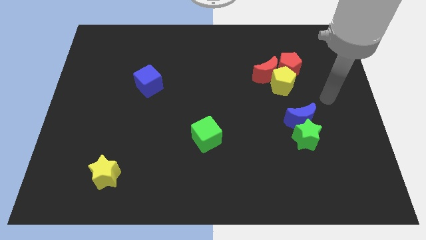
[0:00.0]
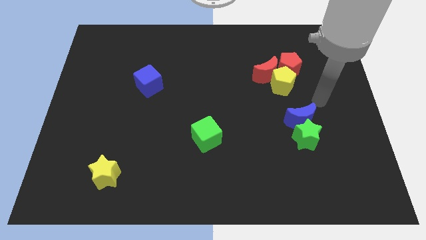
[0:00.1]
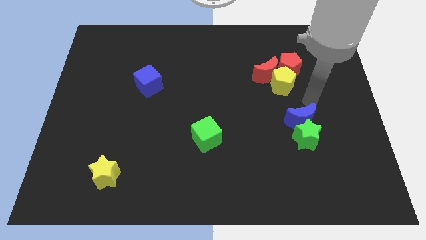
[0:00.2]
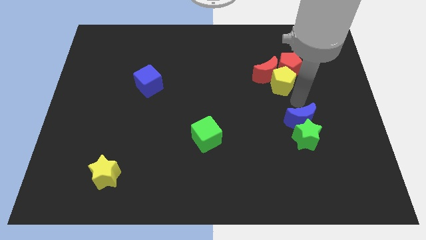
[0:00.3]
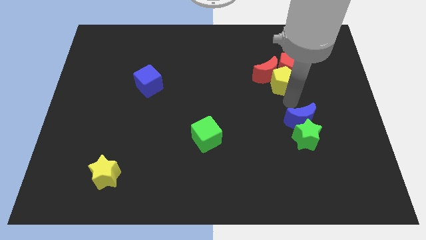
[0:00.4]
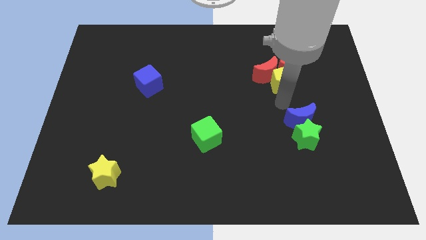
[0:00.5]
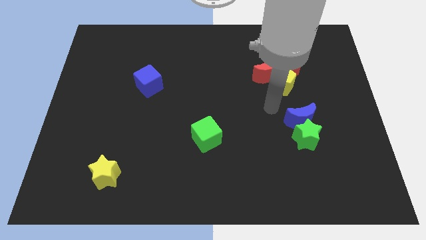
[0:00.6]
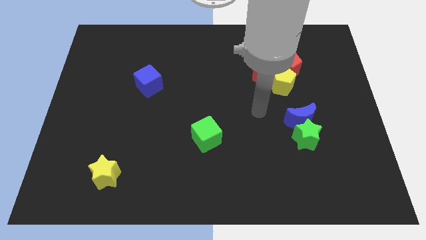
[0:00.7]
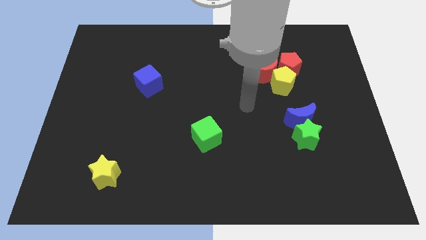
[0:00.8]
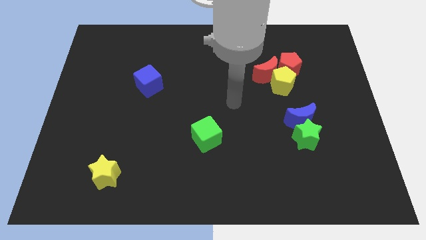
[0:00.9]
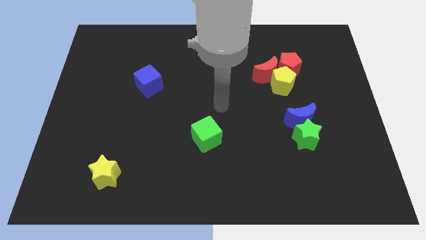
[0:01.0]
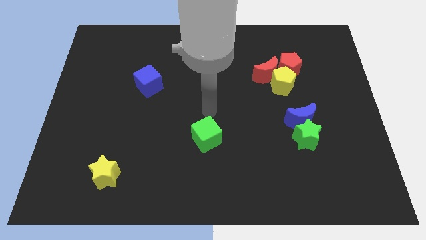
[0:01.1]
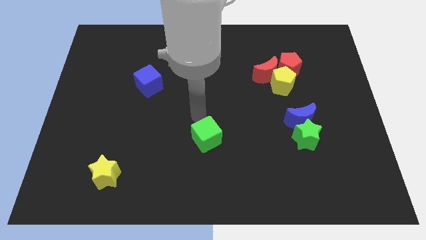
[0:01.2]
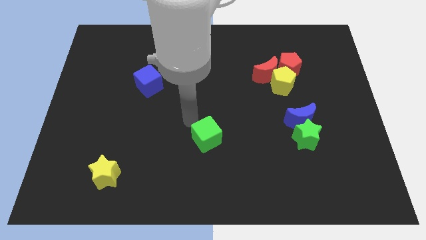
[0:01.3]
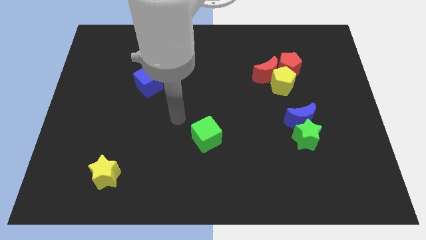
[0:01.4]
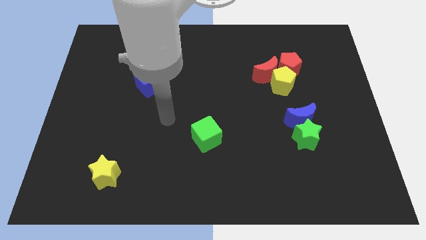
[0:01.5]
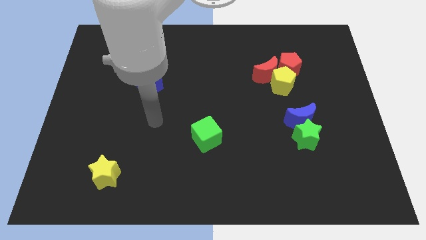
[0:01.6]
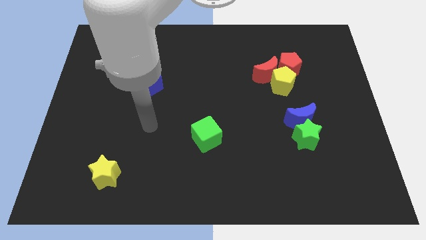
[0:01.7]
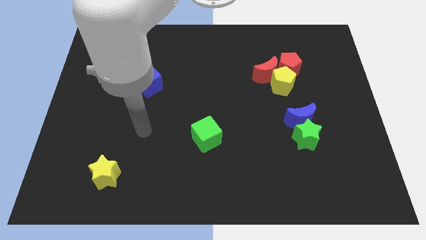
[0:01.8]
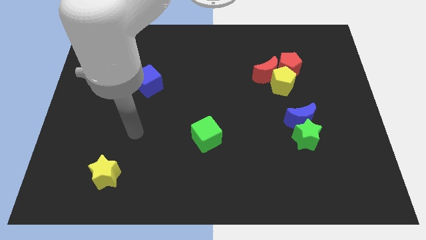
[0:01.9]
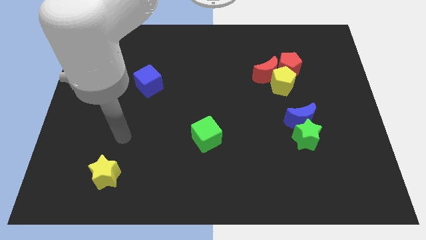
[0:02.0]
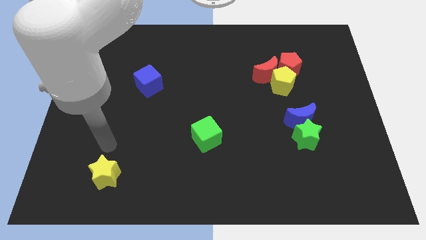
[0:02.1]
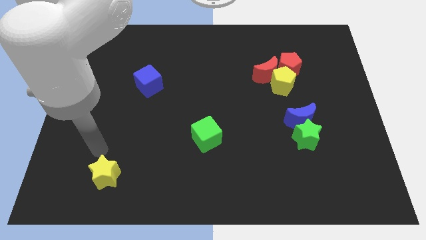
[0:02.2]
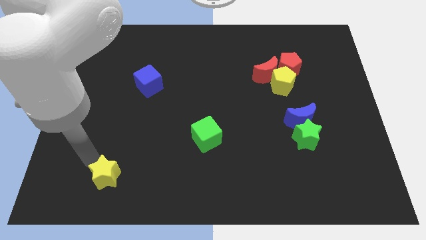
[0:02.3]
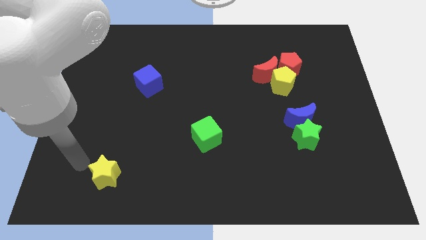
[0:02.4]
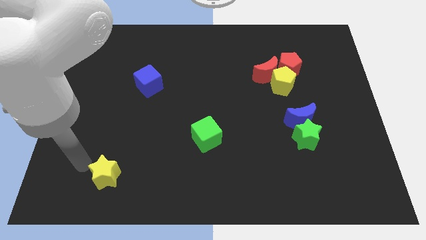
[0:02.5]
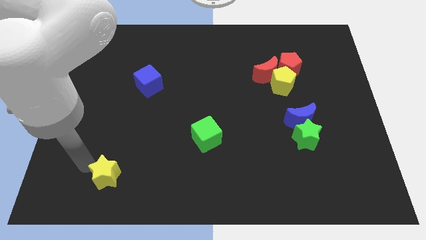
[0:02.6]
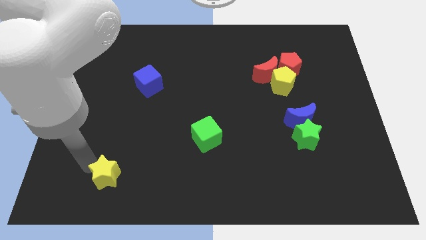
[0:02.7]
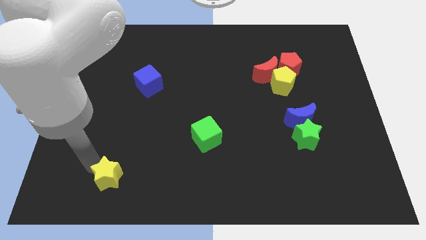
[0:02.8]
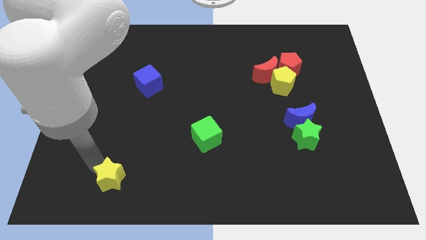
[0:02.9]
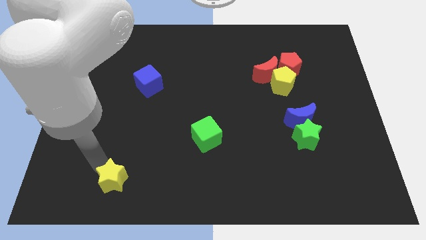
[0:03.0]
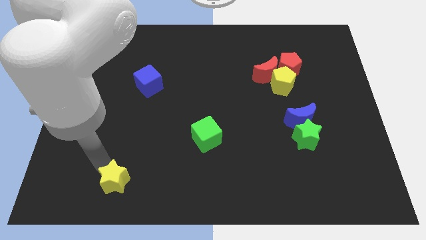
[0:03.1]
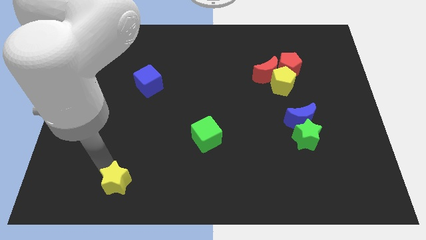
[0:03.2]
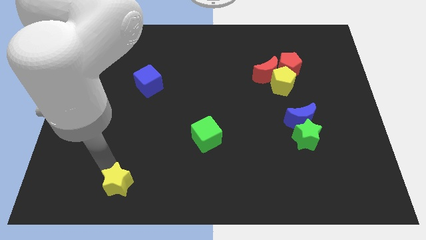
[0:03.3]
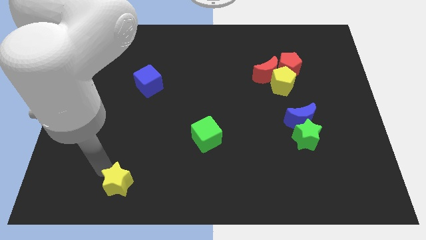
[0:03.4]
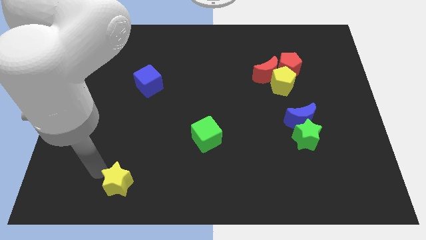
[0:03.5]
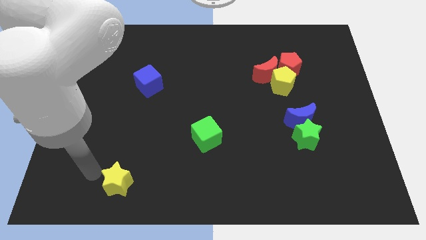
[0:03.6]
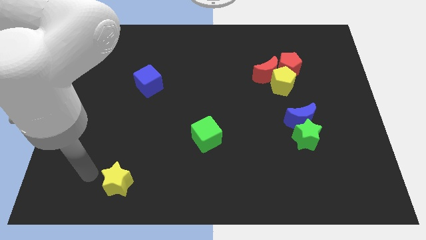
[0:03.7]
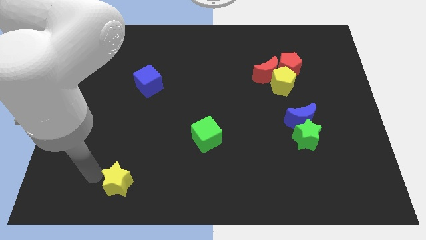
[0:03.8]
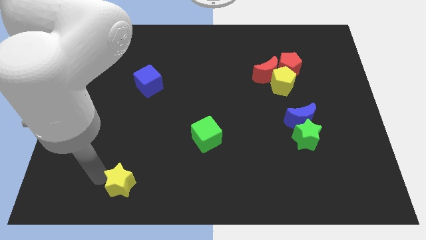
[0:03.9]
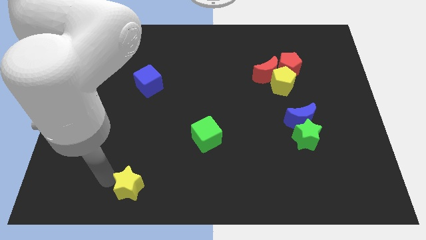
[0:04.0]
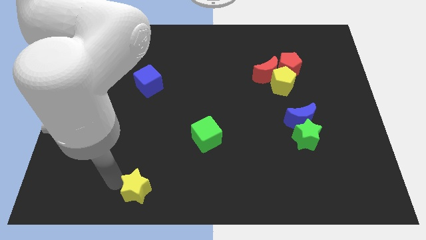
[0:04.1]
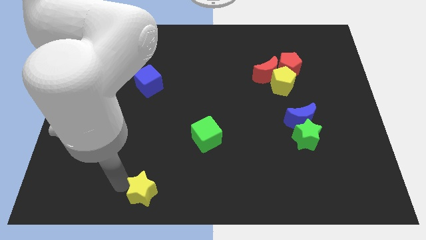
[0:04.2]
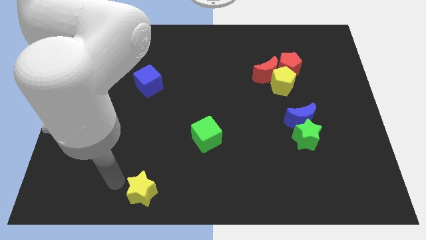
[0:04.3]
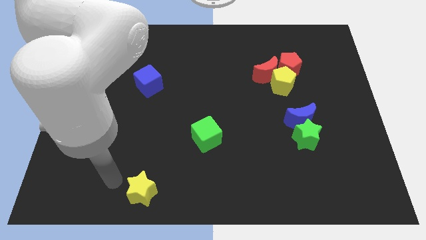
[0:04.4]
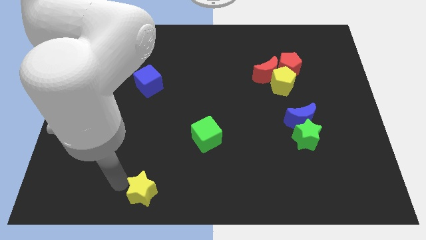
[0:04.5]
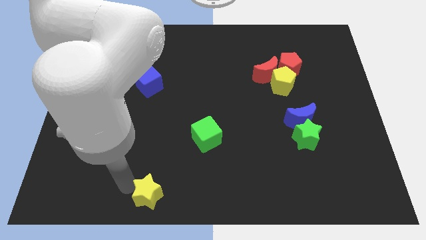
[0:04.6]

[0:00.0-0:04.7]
slide the yellow star to the bottom side

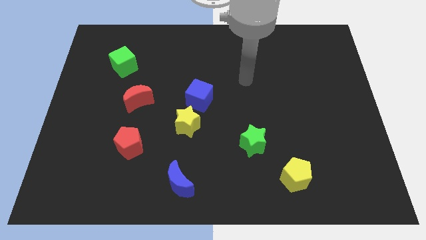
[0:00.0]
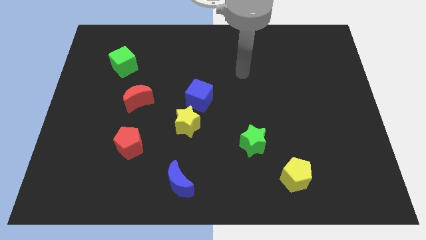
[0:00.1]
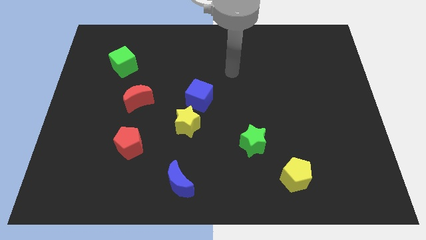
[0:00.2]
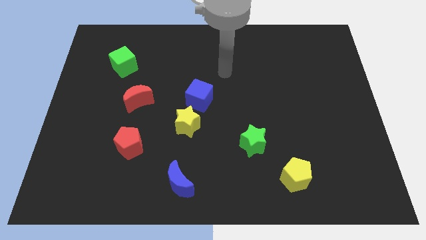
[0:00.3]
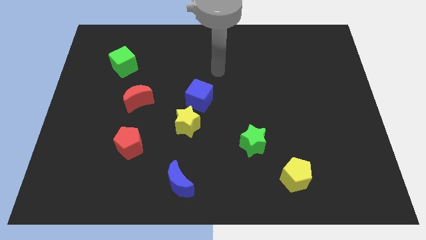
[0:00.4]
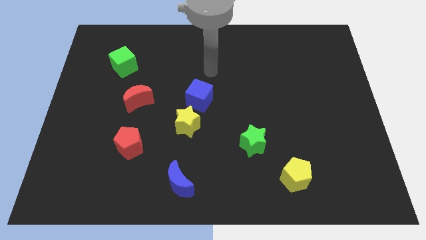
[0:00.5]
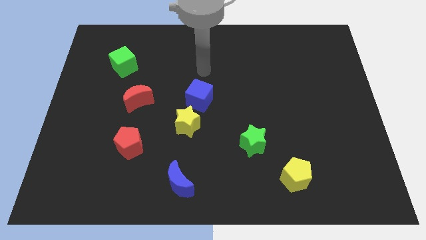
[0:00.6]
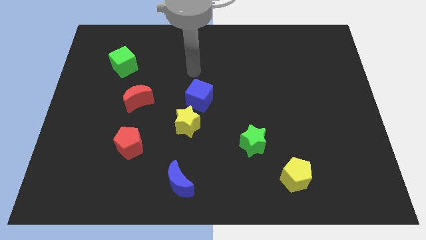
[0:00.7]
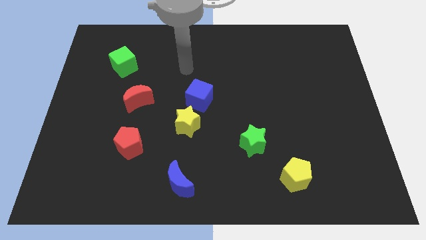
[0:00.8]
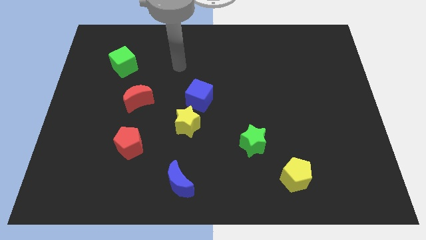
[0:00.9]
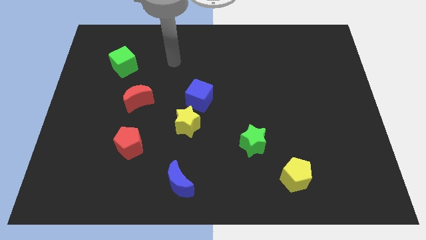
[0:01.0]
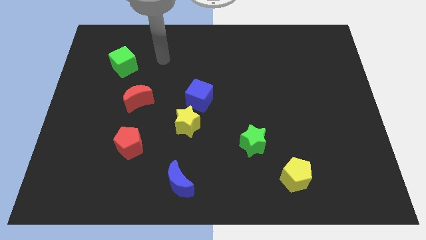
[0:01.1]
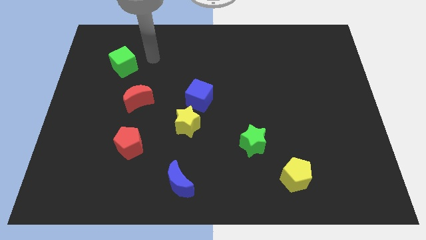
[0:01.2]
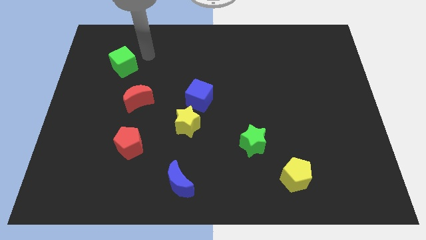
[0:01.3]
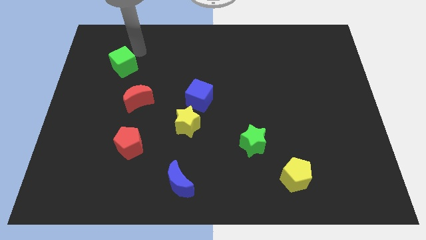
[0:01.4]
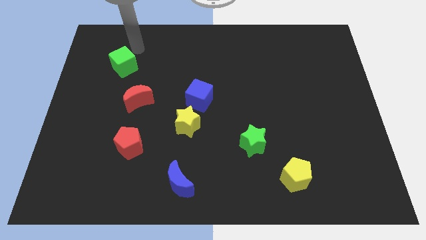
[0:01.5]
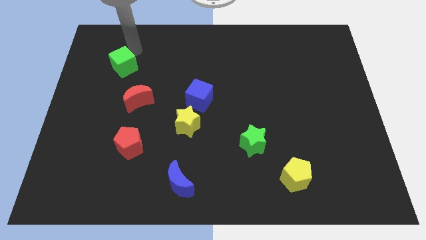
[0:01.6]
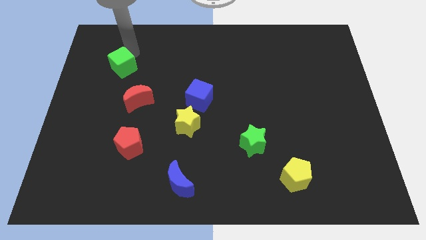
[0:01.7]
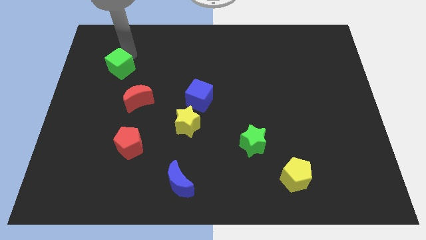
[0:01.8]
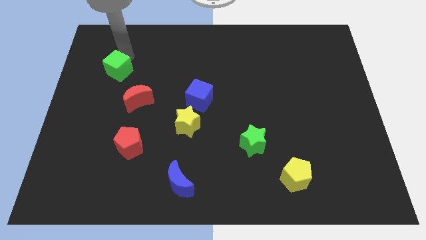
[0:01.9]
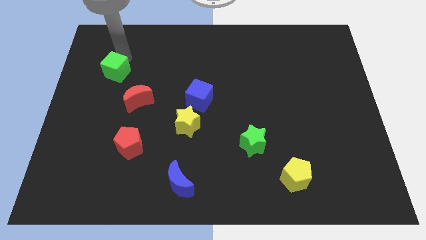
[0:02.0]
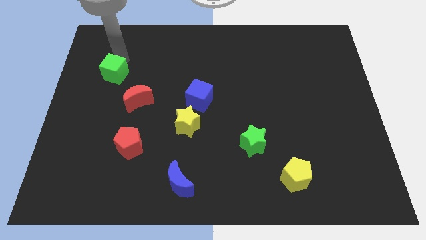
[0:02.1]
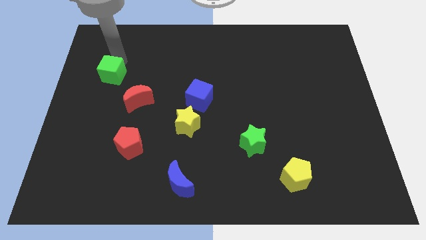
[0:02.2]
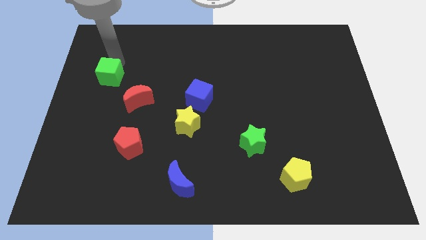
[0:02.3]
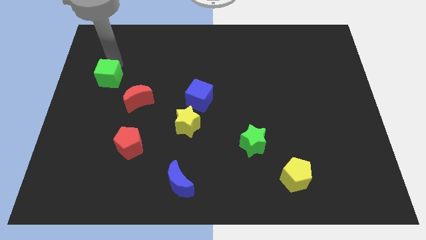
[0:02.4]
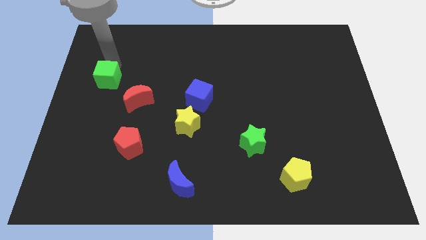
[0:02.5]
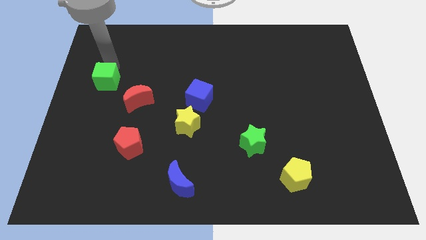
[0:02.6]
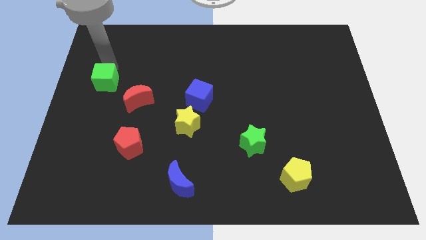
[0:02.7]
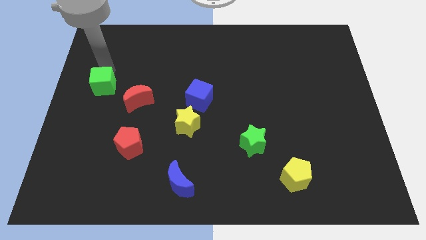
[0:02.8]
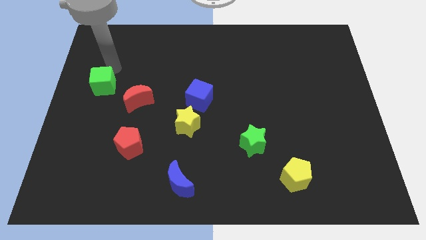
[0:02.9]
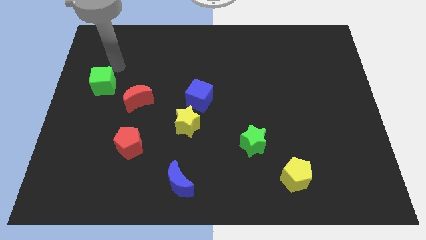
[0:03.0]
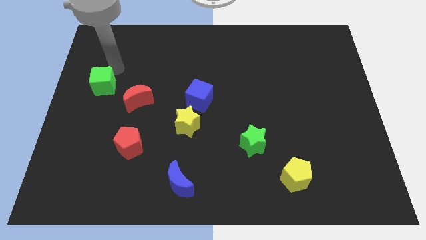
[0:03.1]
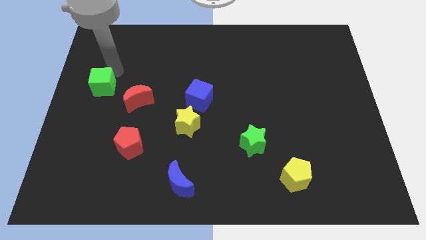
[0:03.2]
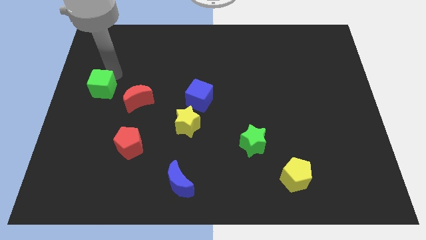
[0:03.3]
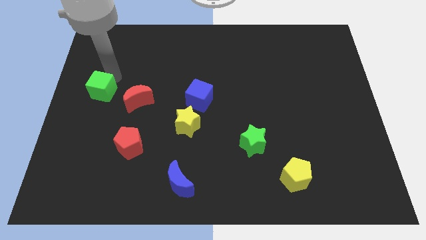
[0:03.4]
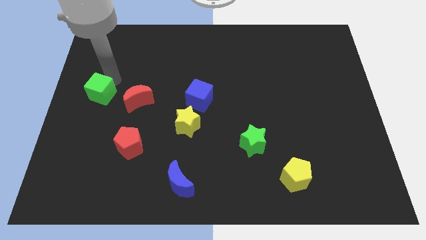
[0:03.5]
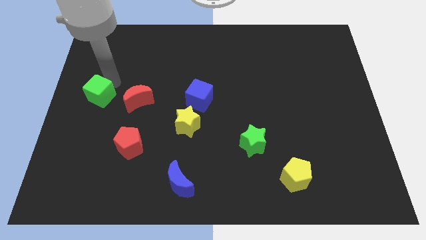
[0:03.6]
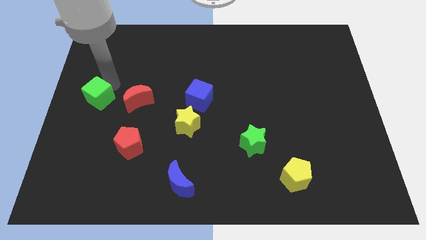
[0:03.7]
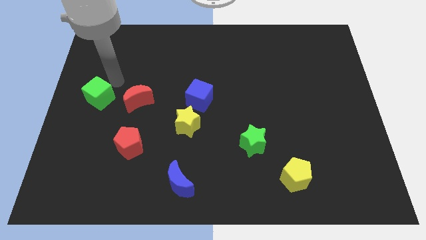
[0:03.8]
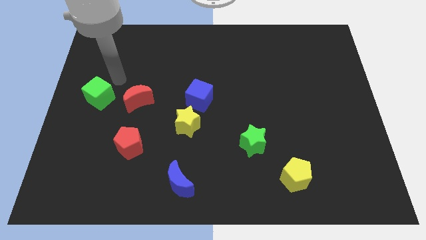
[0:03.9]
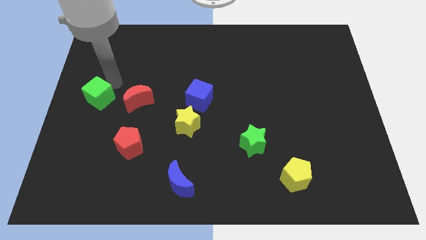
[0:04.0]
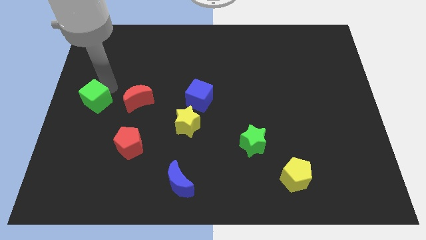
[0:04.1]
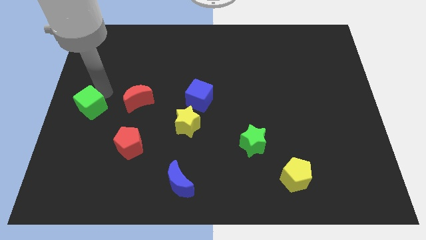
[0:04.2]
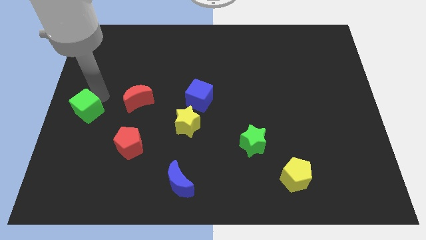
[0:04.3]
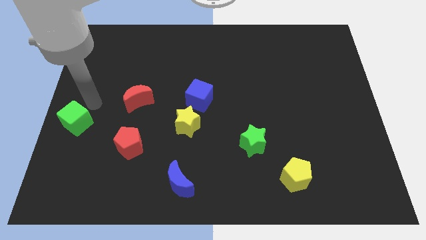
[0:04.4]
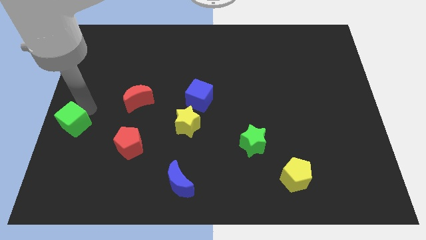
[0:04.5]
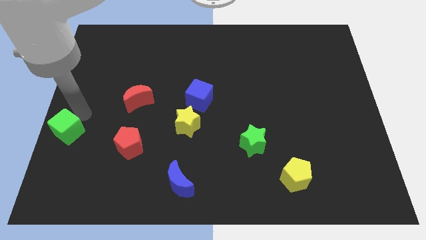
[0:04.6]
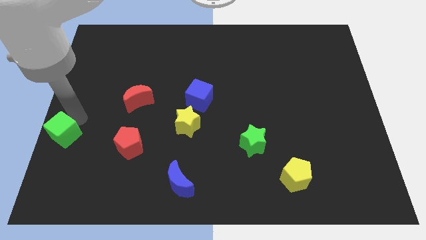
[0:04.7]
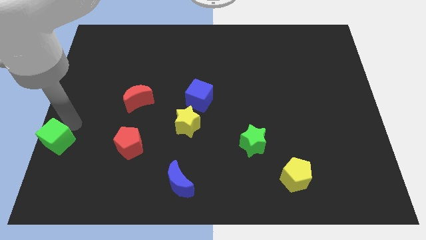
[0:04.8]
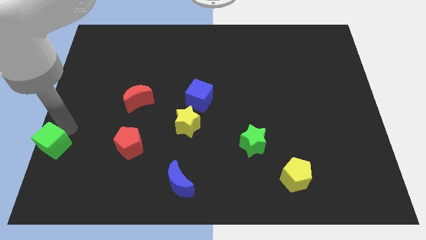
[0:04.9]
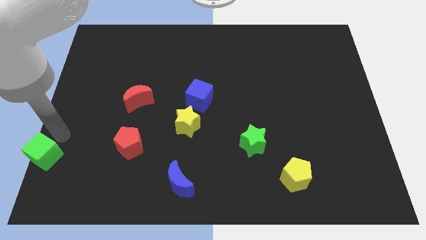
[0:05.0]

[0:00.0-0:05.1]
slide the green cube to the bottom left corner
